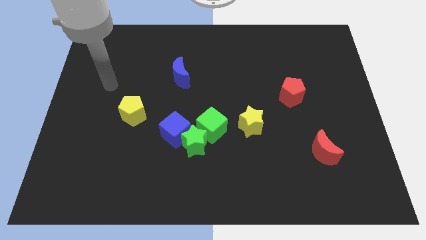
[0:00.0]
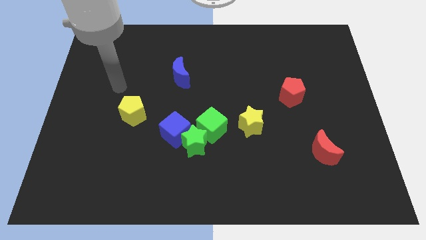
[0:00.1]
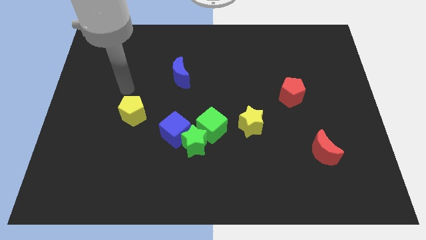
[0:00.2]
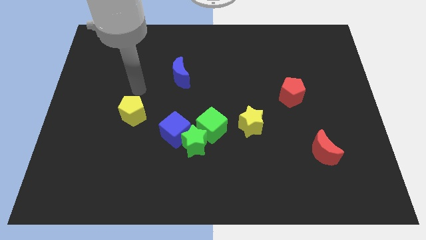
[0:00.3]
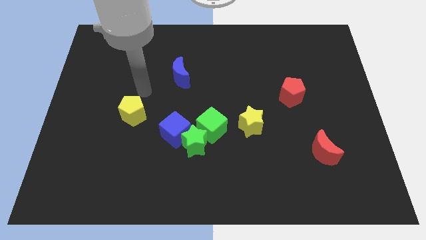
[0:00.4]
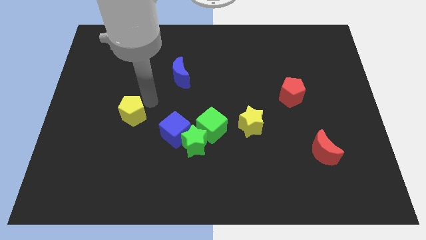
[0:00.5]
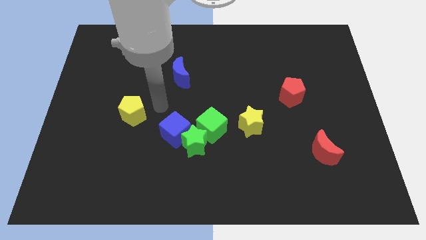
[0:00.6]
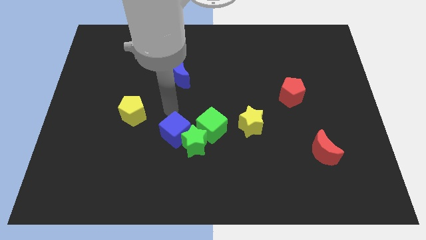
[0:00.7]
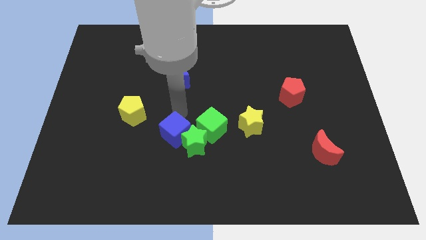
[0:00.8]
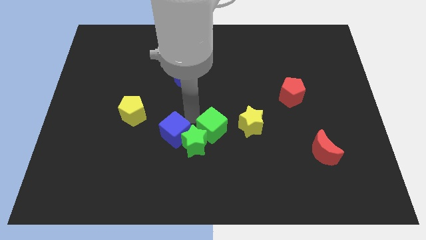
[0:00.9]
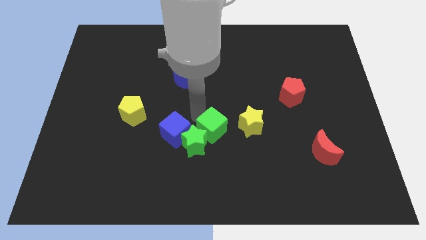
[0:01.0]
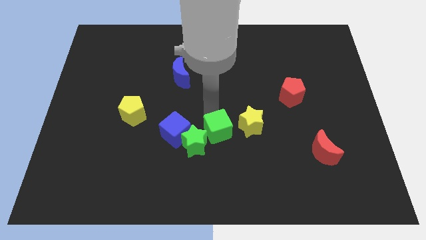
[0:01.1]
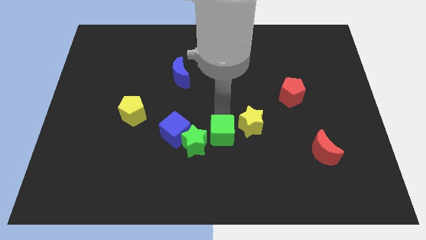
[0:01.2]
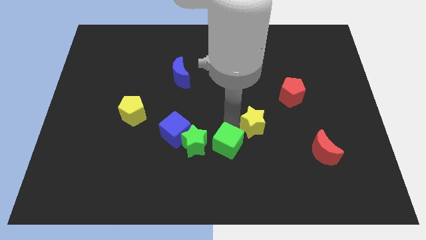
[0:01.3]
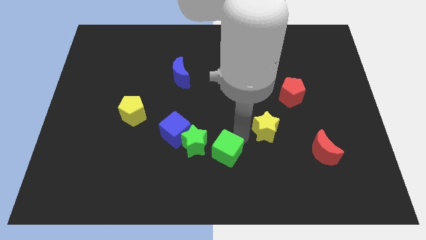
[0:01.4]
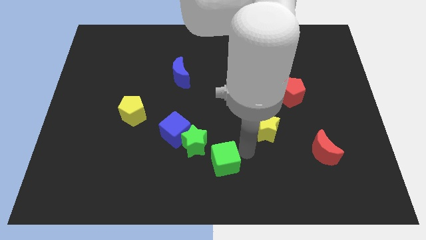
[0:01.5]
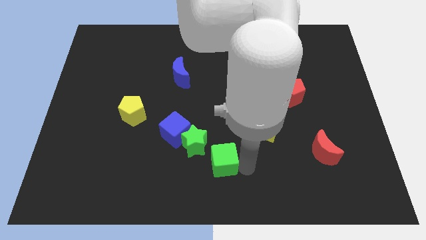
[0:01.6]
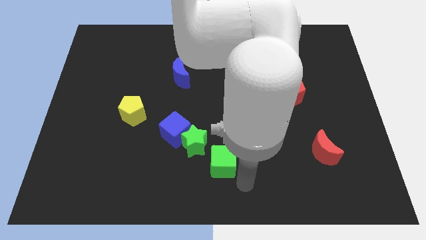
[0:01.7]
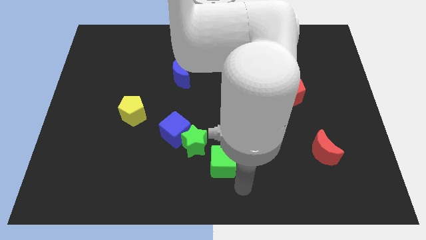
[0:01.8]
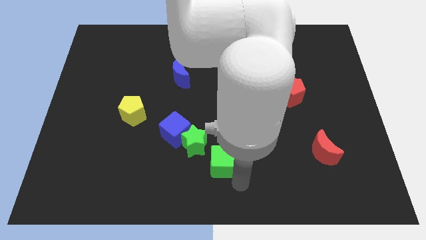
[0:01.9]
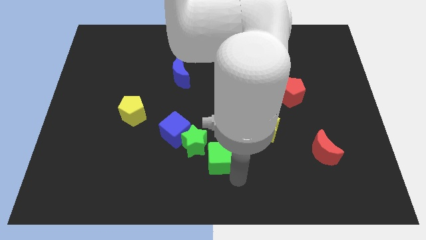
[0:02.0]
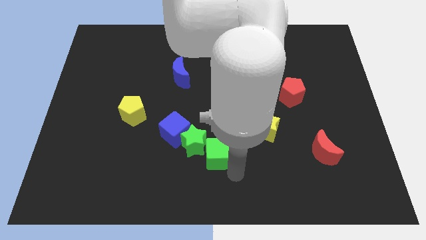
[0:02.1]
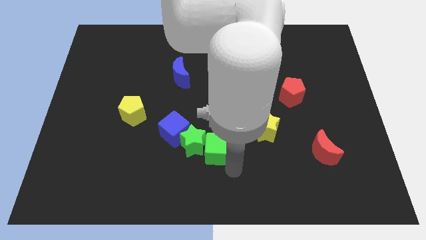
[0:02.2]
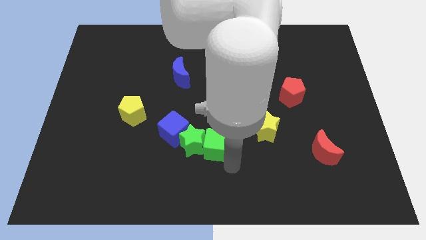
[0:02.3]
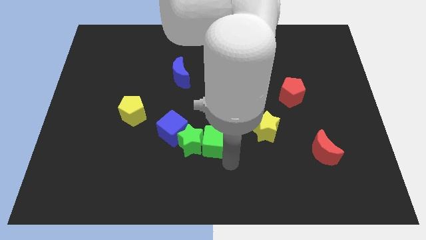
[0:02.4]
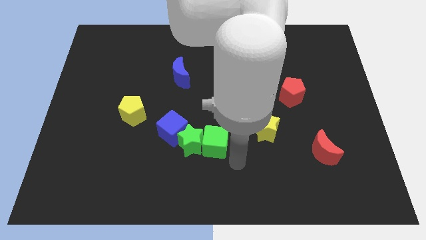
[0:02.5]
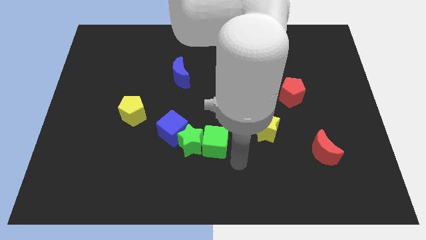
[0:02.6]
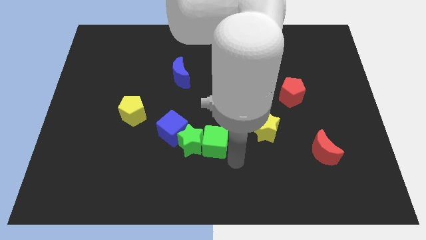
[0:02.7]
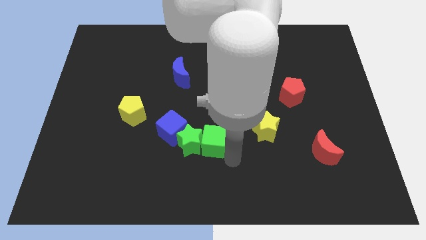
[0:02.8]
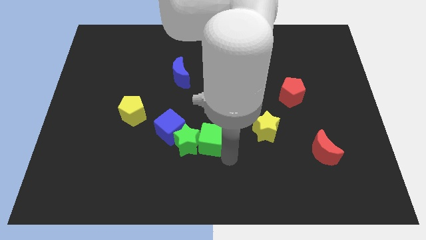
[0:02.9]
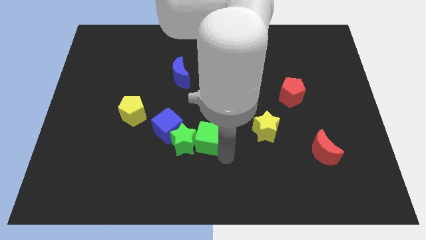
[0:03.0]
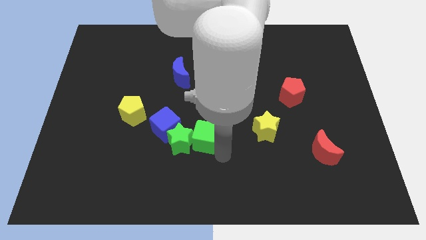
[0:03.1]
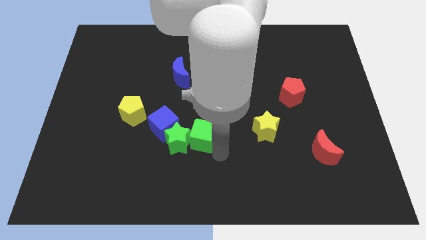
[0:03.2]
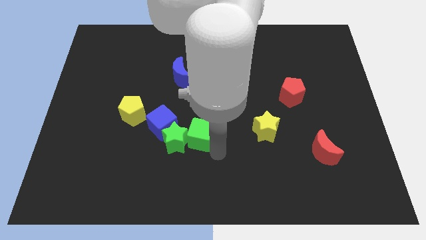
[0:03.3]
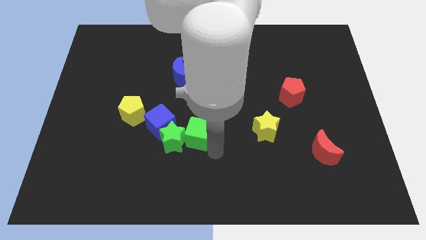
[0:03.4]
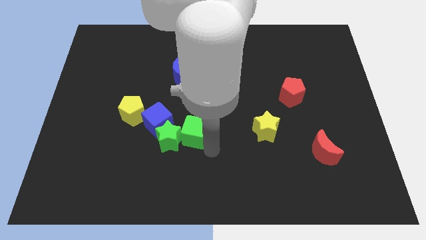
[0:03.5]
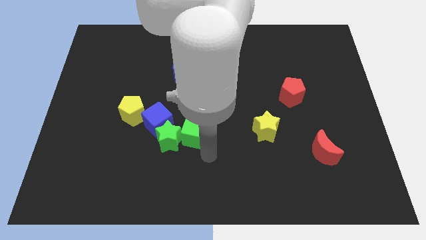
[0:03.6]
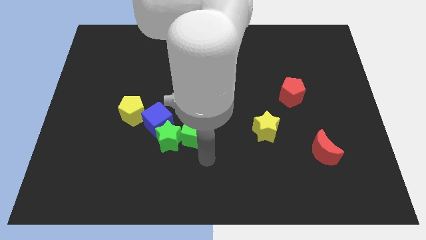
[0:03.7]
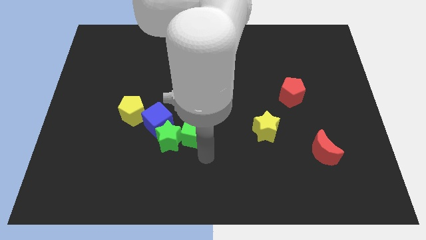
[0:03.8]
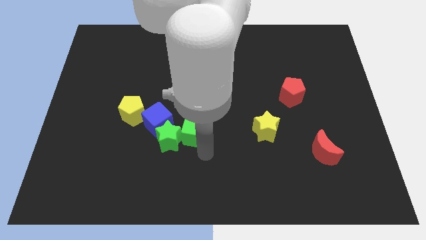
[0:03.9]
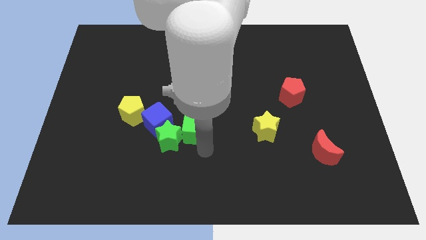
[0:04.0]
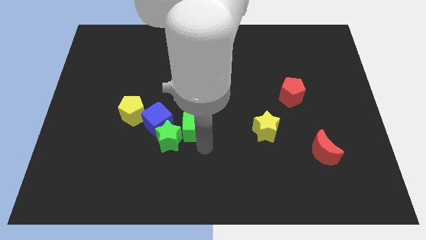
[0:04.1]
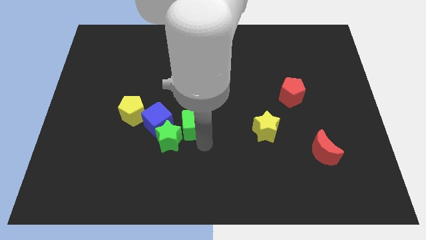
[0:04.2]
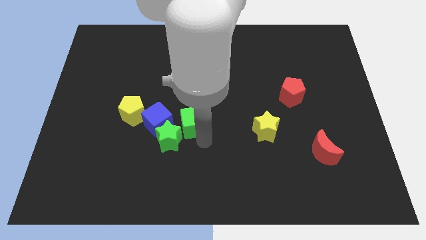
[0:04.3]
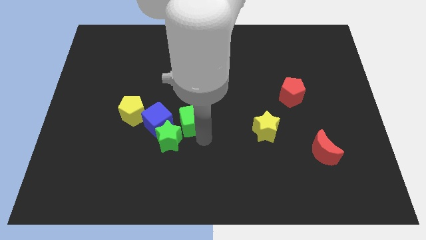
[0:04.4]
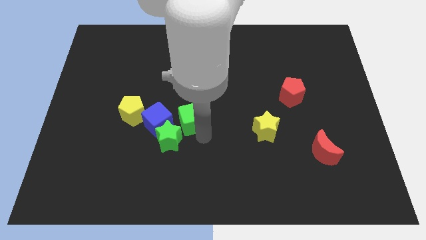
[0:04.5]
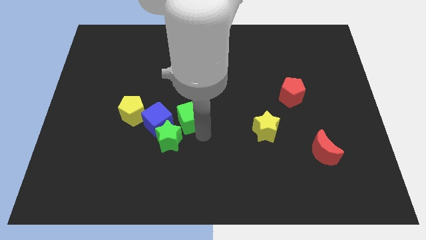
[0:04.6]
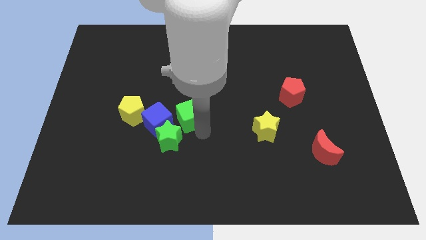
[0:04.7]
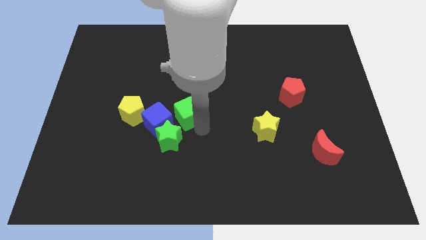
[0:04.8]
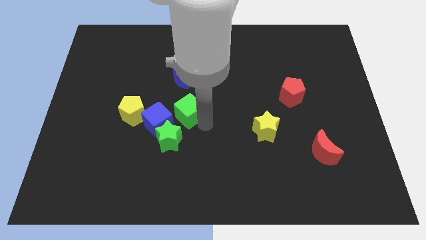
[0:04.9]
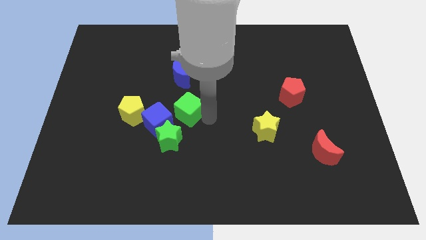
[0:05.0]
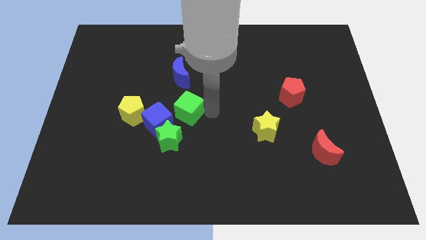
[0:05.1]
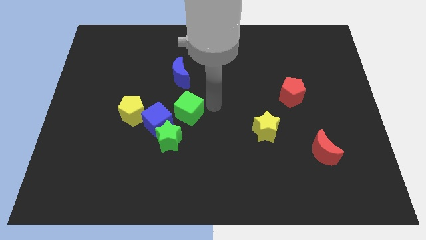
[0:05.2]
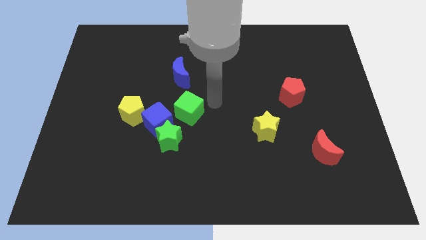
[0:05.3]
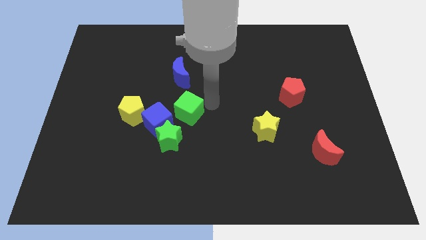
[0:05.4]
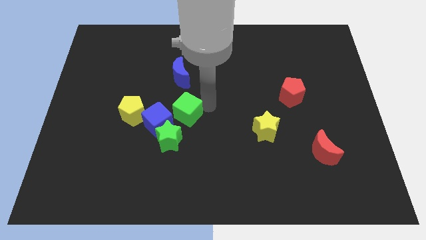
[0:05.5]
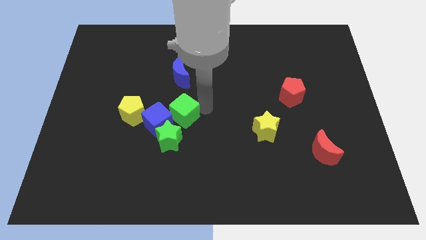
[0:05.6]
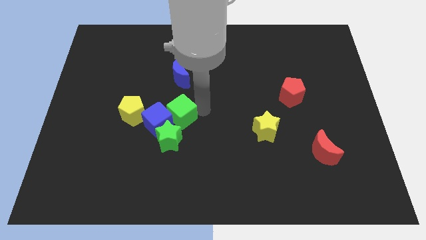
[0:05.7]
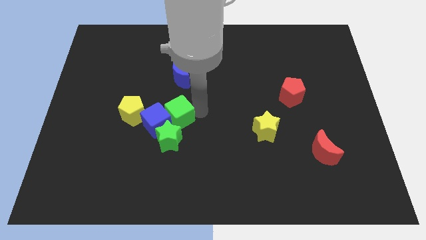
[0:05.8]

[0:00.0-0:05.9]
push the green cube a bit left

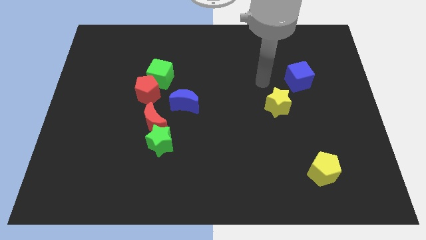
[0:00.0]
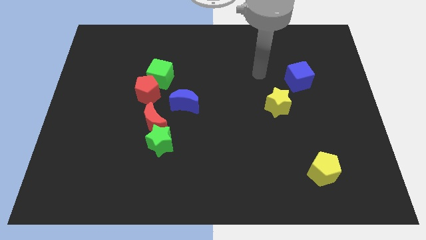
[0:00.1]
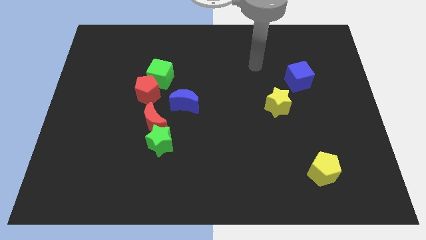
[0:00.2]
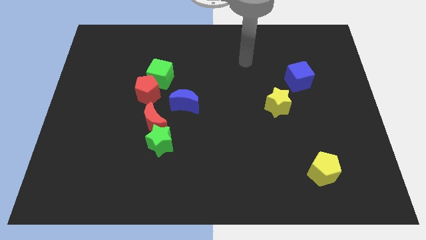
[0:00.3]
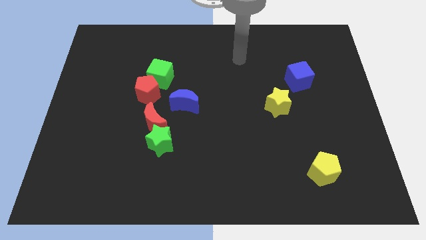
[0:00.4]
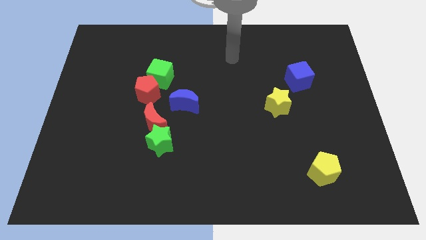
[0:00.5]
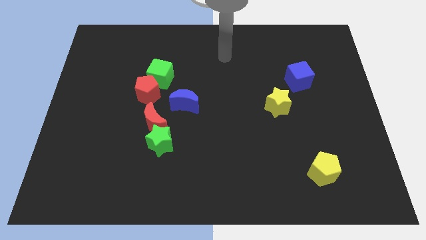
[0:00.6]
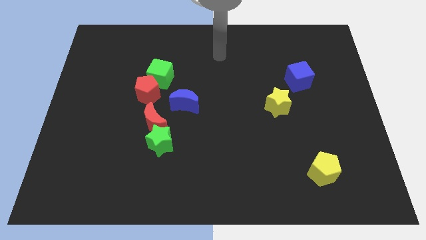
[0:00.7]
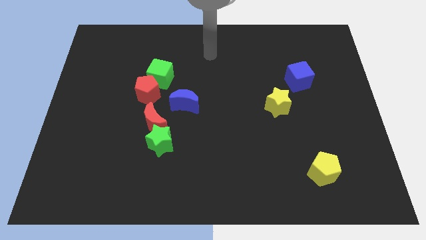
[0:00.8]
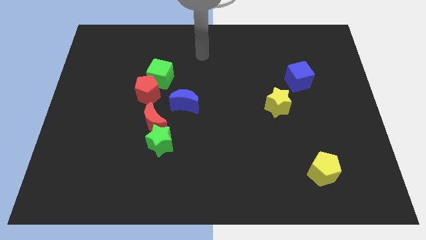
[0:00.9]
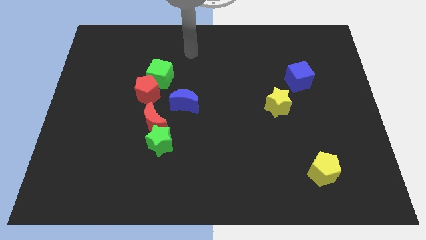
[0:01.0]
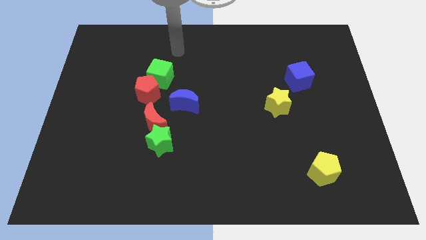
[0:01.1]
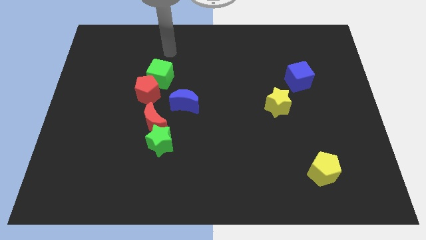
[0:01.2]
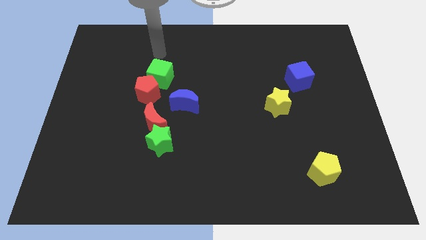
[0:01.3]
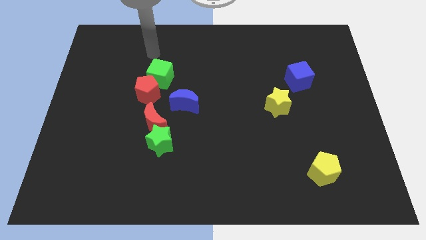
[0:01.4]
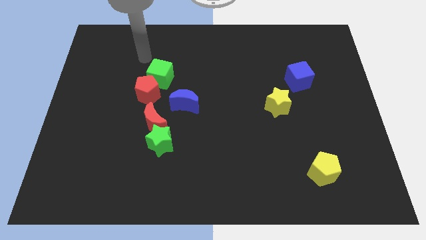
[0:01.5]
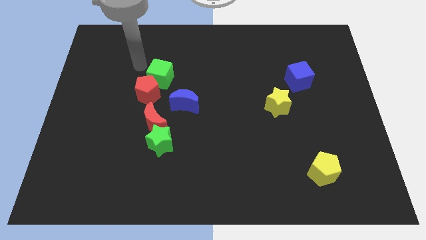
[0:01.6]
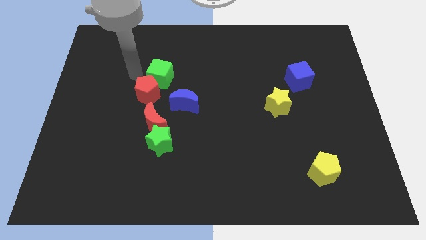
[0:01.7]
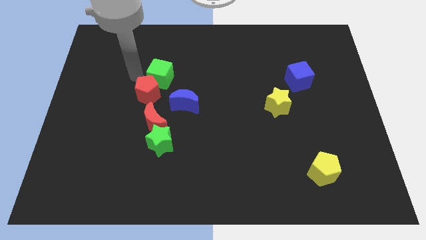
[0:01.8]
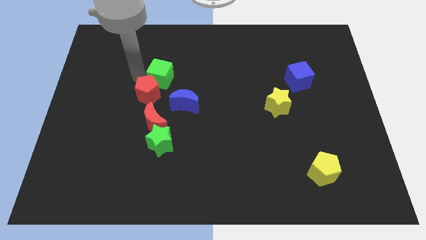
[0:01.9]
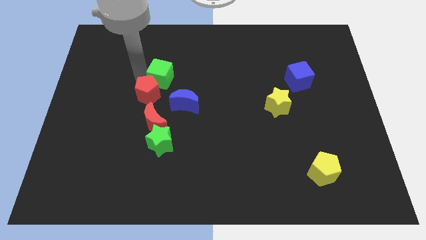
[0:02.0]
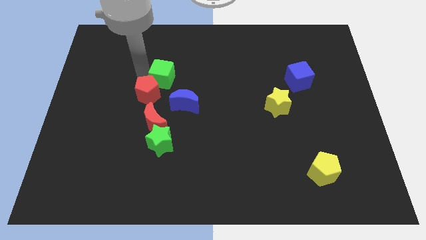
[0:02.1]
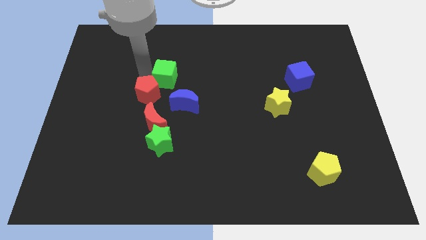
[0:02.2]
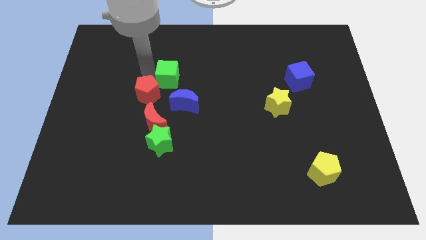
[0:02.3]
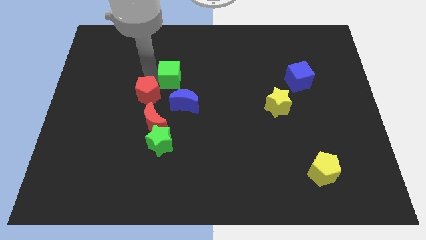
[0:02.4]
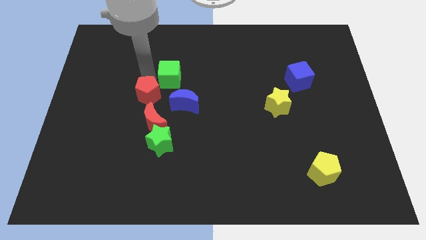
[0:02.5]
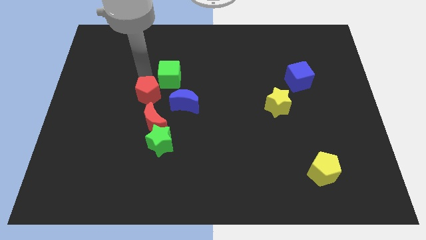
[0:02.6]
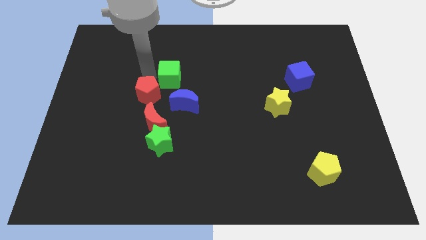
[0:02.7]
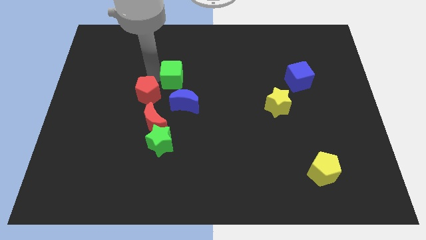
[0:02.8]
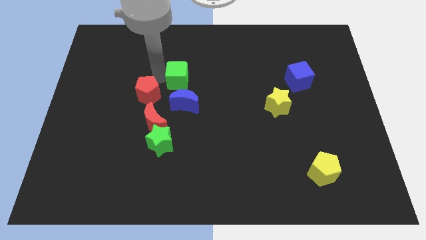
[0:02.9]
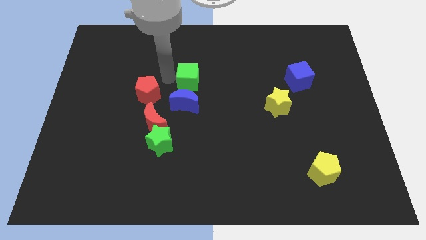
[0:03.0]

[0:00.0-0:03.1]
slightly move the green cube to the right
